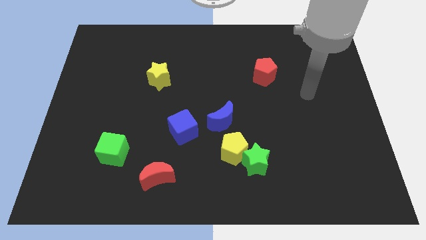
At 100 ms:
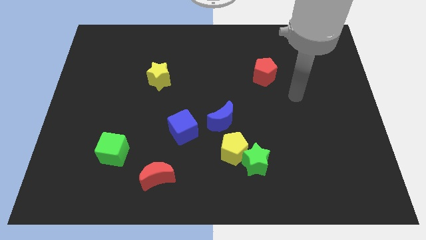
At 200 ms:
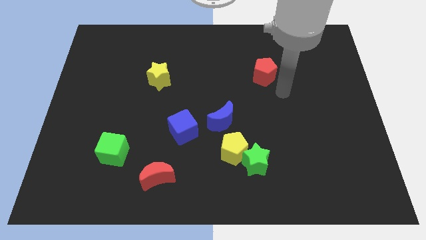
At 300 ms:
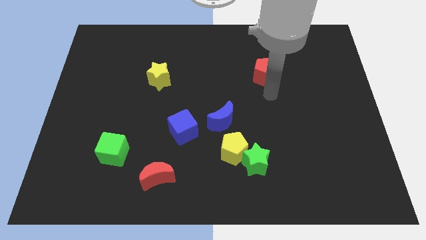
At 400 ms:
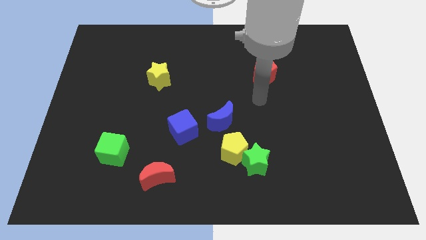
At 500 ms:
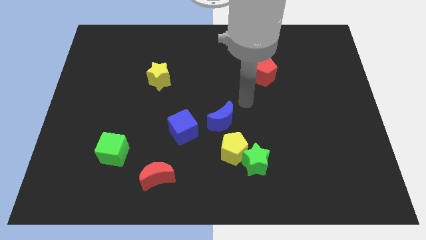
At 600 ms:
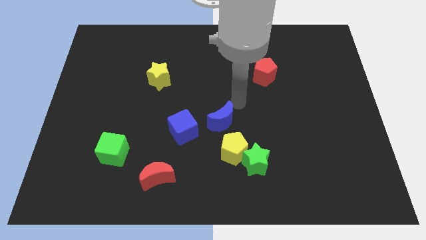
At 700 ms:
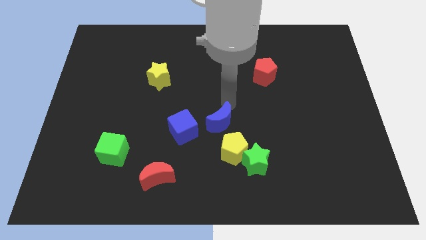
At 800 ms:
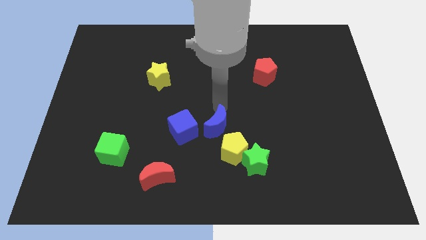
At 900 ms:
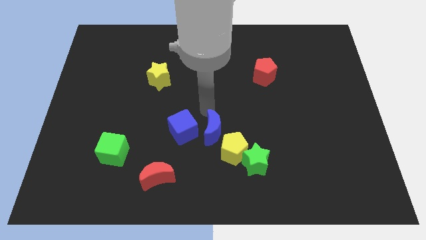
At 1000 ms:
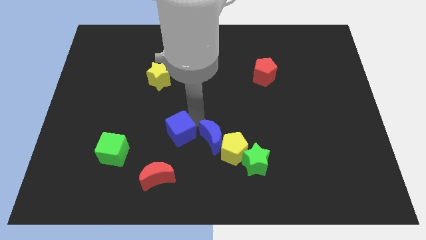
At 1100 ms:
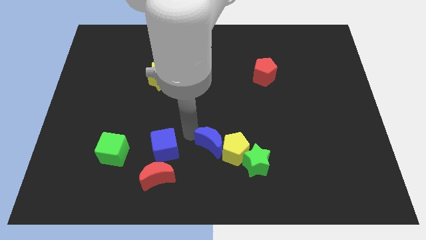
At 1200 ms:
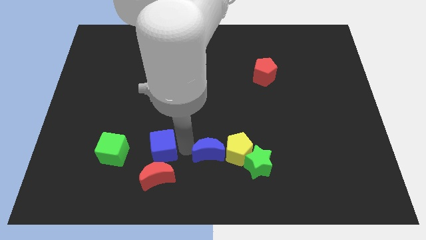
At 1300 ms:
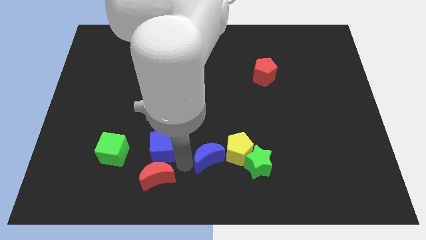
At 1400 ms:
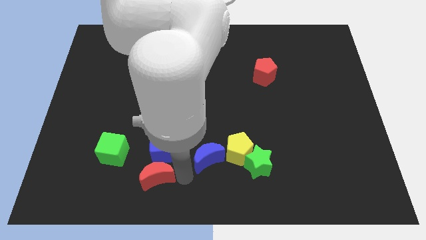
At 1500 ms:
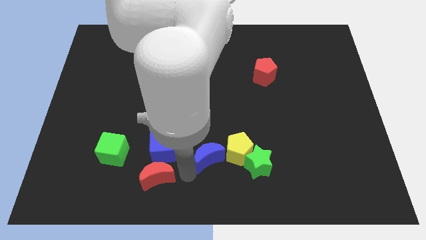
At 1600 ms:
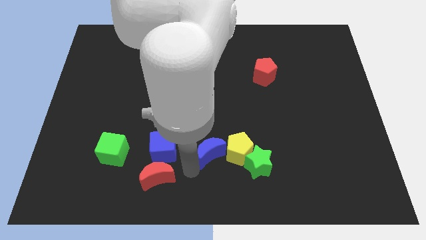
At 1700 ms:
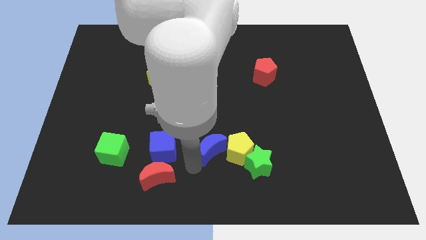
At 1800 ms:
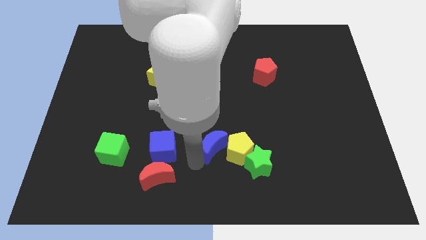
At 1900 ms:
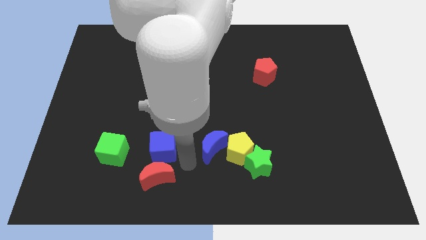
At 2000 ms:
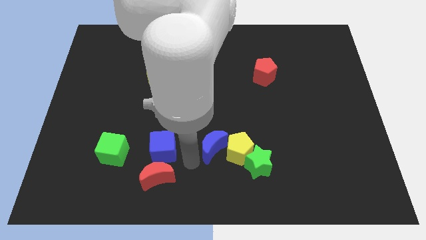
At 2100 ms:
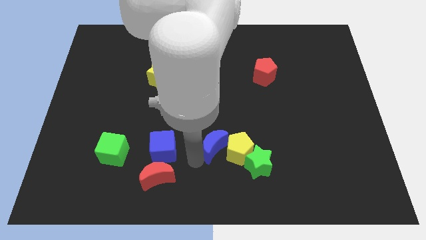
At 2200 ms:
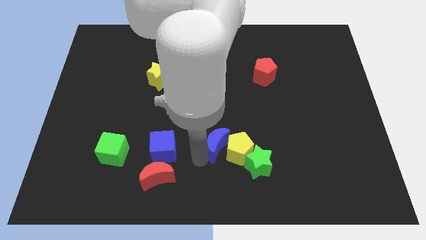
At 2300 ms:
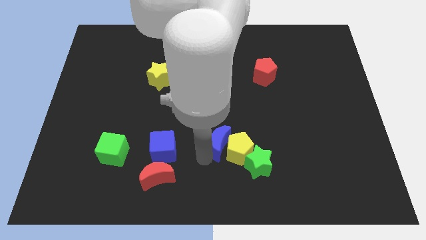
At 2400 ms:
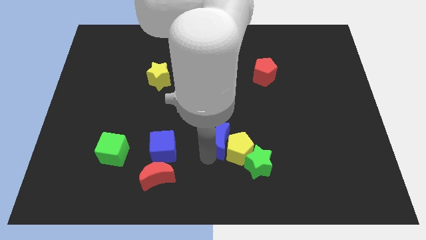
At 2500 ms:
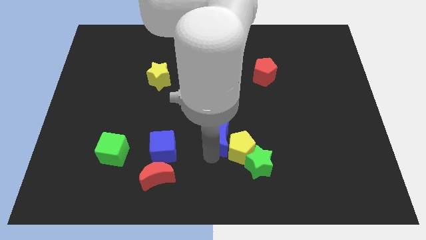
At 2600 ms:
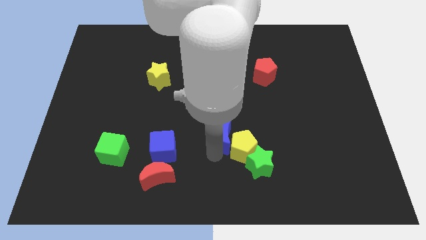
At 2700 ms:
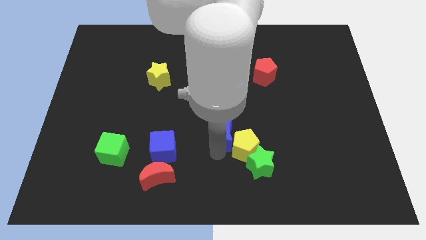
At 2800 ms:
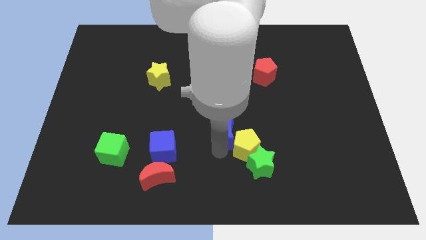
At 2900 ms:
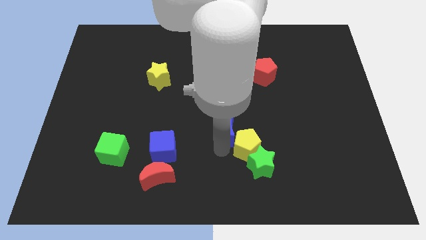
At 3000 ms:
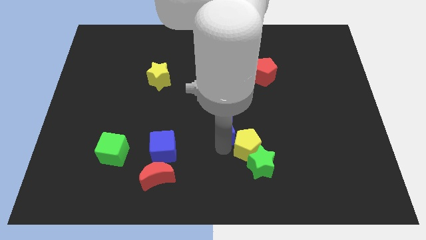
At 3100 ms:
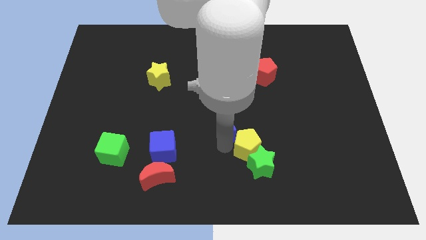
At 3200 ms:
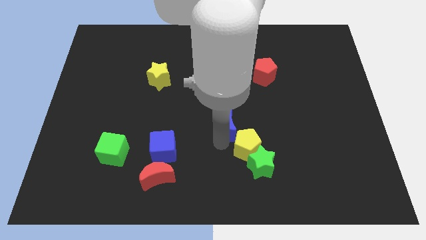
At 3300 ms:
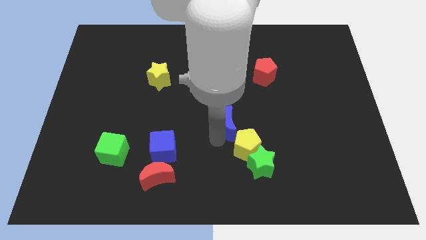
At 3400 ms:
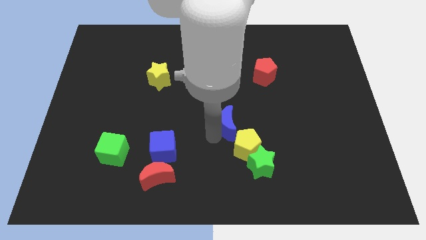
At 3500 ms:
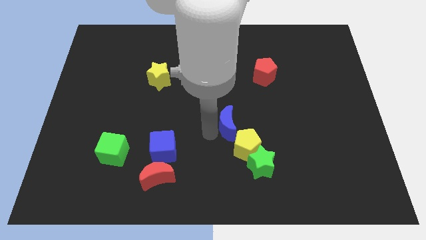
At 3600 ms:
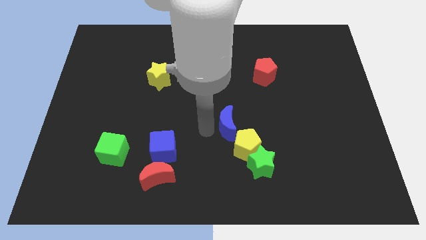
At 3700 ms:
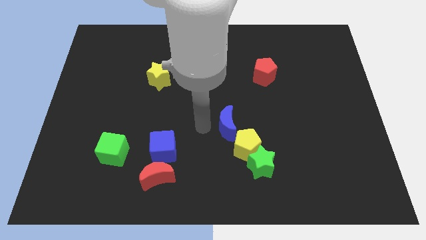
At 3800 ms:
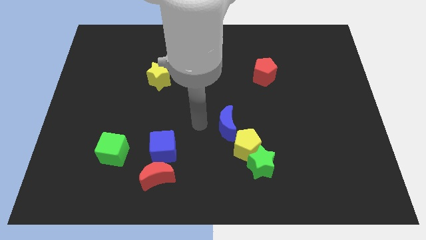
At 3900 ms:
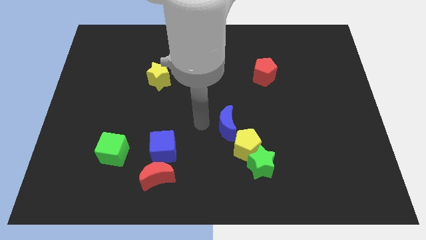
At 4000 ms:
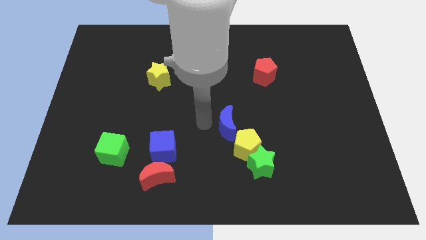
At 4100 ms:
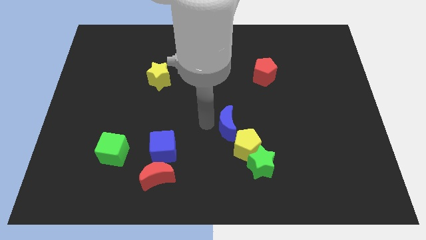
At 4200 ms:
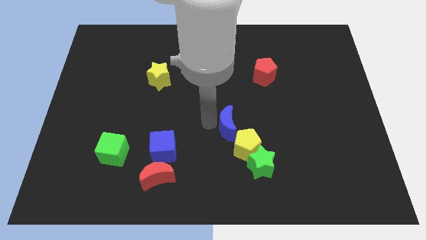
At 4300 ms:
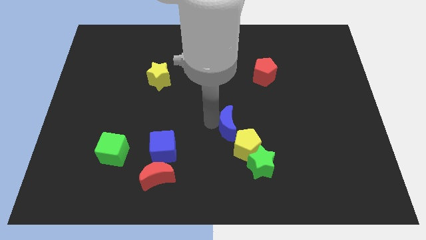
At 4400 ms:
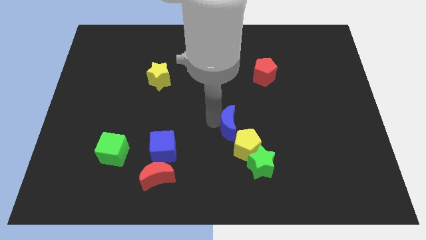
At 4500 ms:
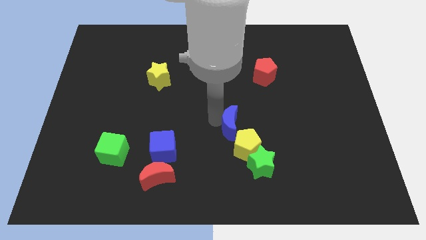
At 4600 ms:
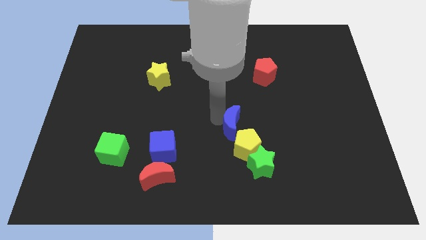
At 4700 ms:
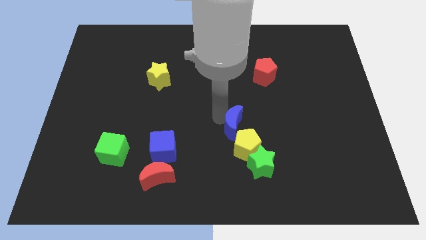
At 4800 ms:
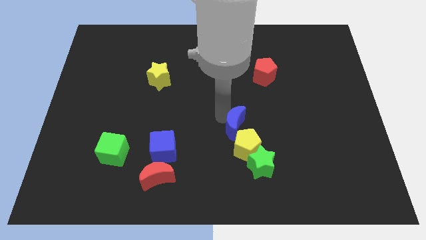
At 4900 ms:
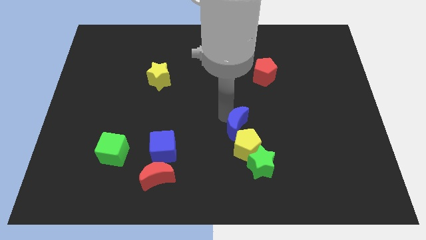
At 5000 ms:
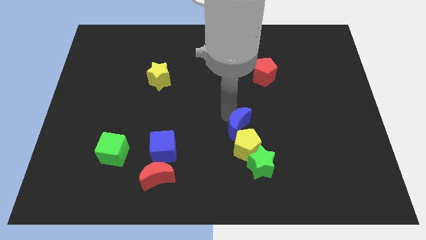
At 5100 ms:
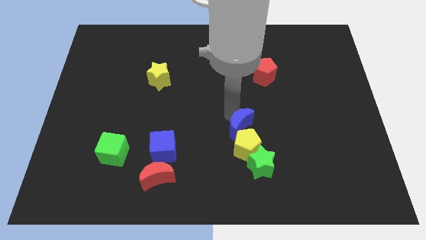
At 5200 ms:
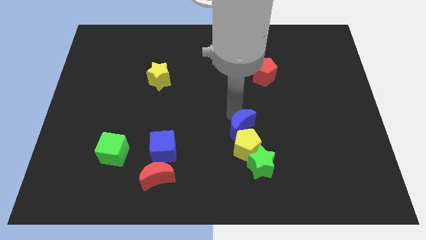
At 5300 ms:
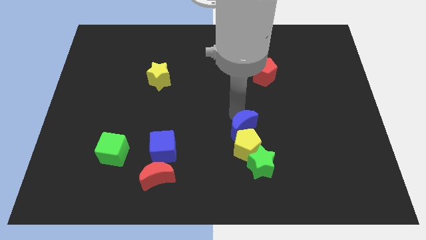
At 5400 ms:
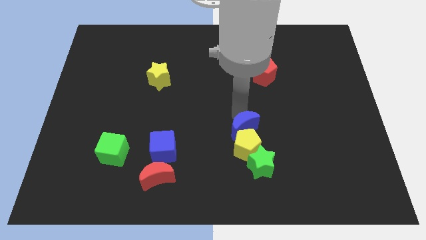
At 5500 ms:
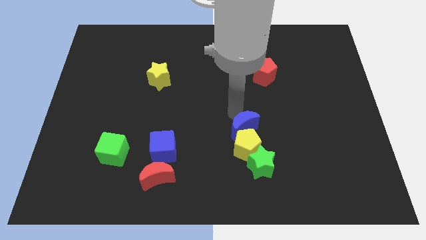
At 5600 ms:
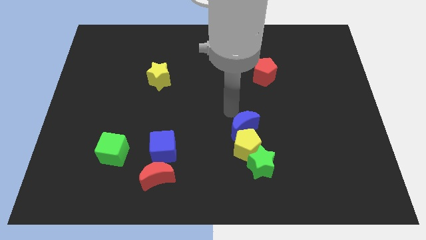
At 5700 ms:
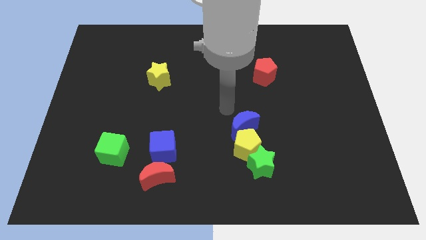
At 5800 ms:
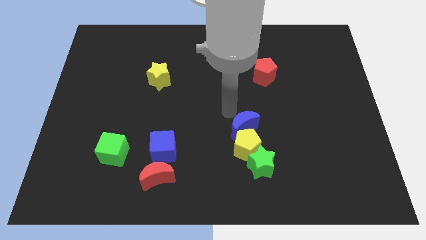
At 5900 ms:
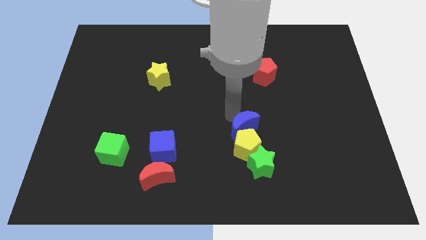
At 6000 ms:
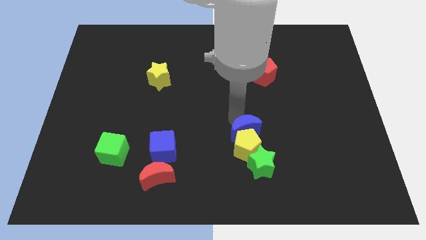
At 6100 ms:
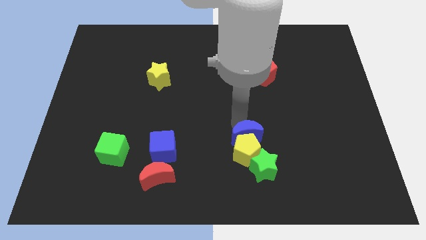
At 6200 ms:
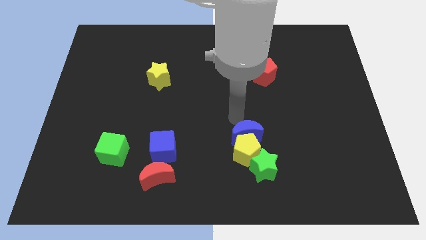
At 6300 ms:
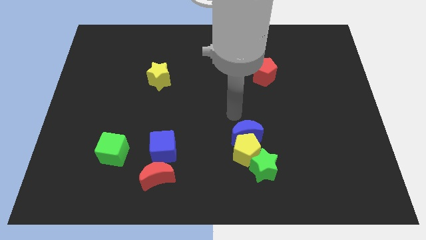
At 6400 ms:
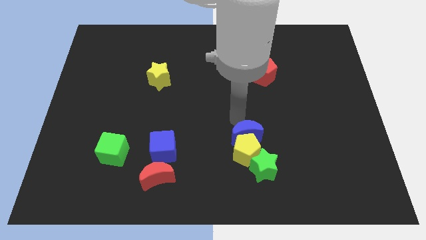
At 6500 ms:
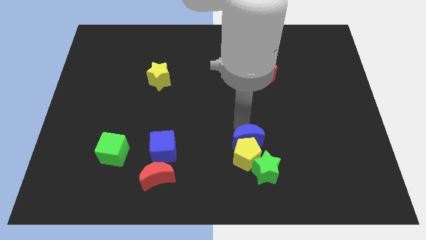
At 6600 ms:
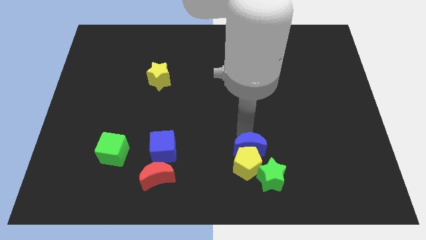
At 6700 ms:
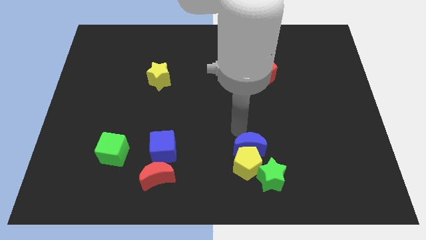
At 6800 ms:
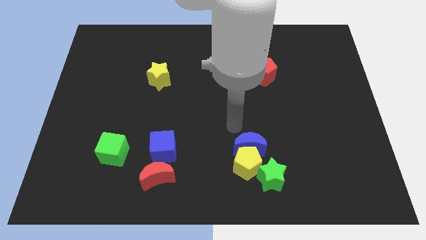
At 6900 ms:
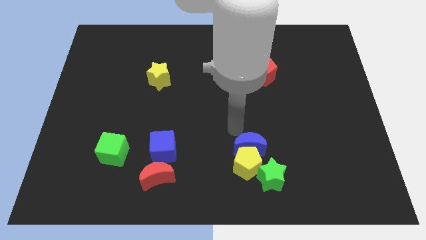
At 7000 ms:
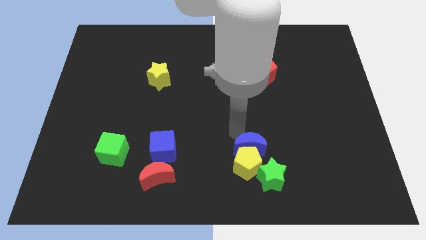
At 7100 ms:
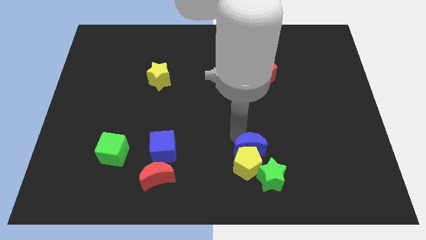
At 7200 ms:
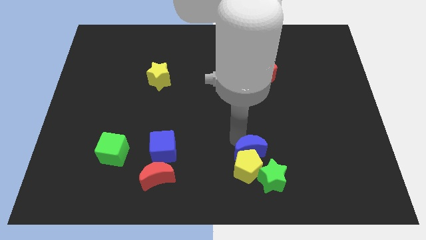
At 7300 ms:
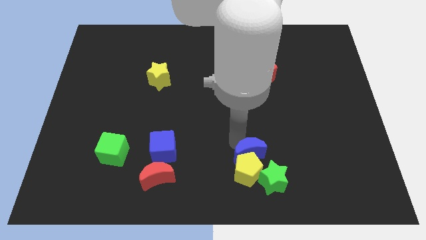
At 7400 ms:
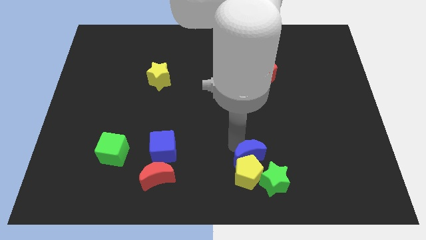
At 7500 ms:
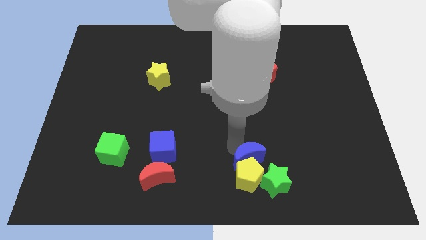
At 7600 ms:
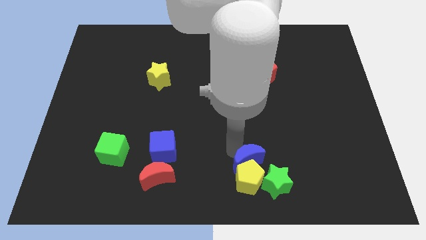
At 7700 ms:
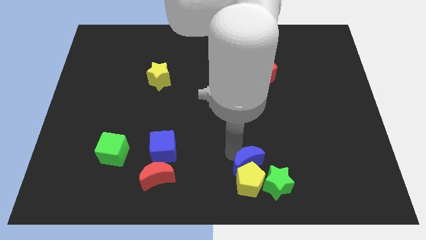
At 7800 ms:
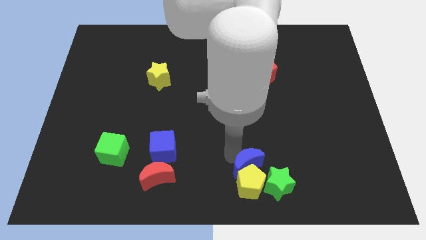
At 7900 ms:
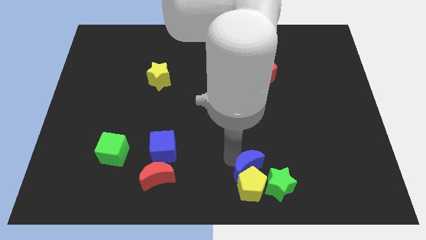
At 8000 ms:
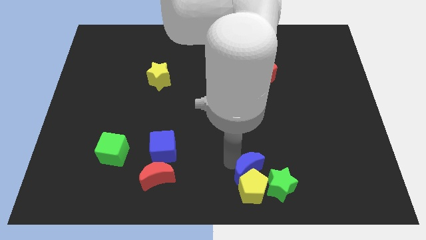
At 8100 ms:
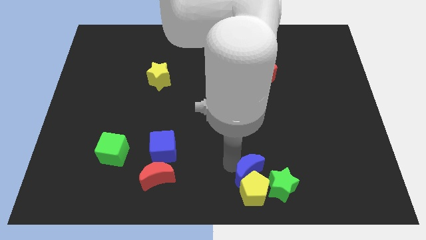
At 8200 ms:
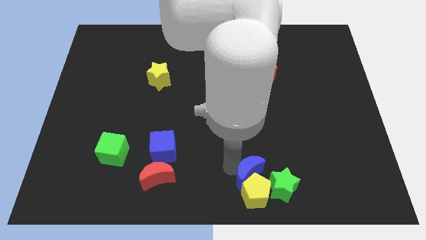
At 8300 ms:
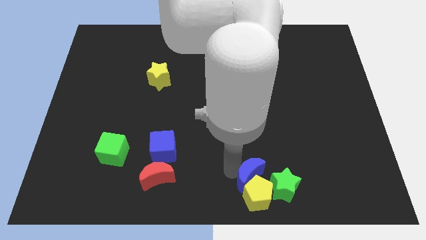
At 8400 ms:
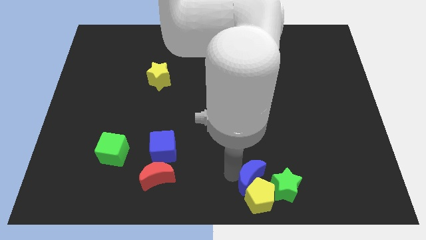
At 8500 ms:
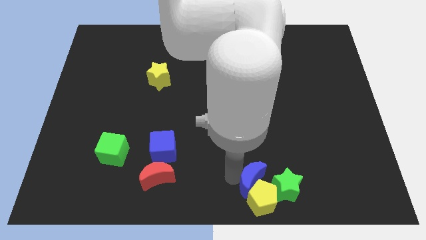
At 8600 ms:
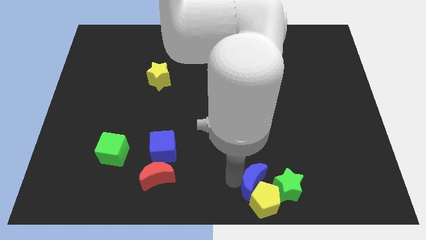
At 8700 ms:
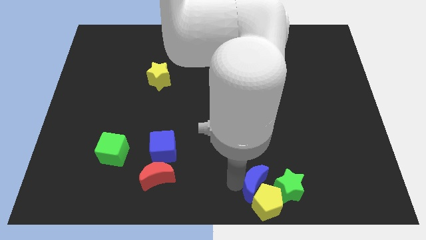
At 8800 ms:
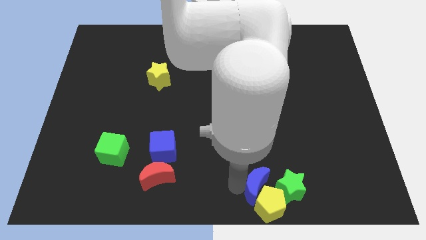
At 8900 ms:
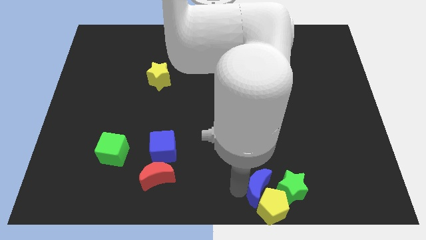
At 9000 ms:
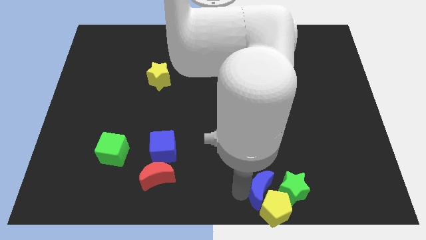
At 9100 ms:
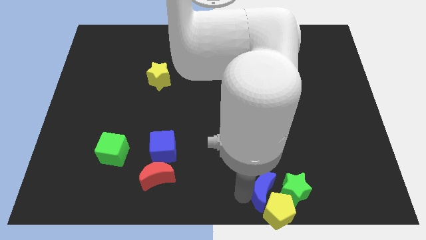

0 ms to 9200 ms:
push the blue moon to the green star
